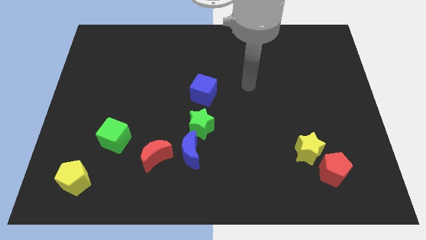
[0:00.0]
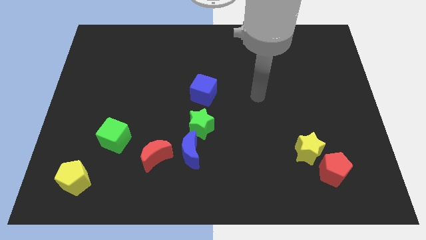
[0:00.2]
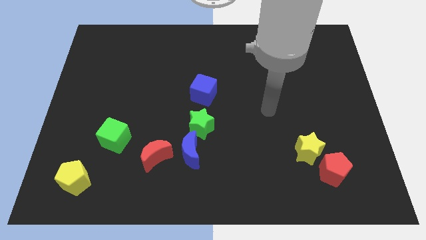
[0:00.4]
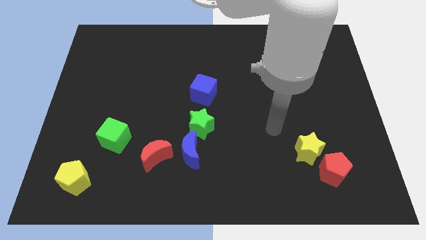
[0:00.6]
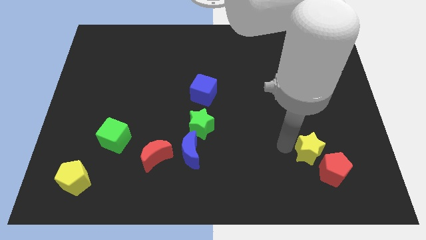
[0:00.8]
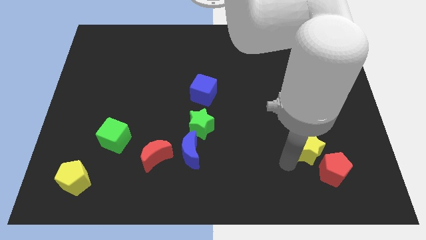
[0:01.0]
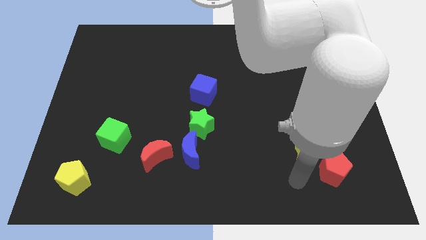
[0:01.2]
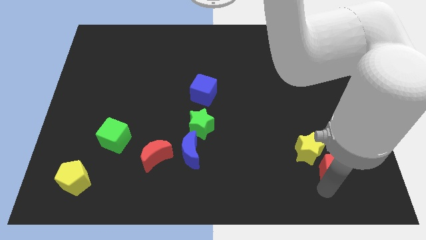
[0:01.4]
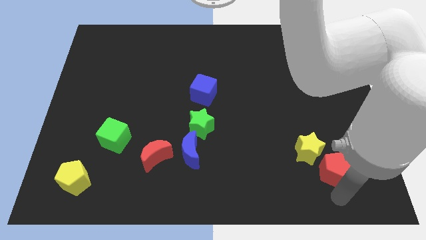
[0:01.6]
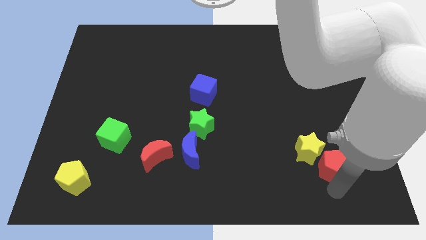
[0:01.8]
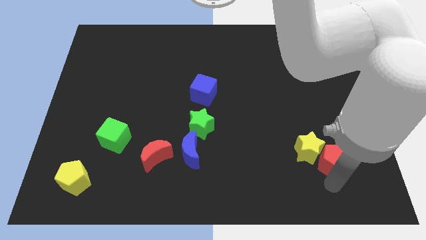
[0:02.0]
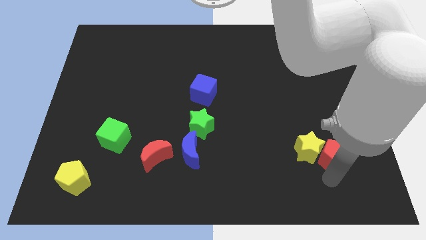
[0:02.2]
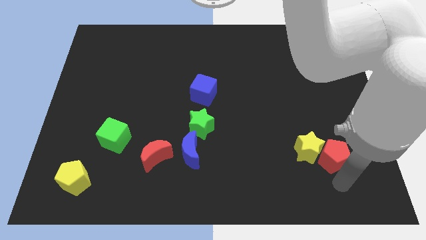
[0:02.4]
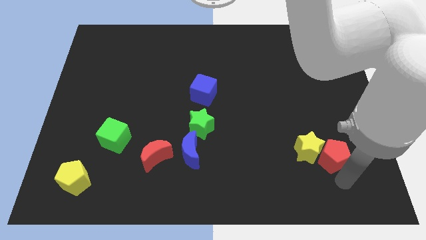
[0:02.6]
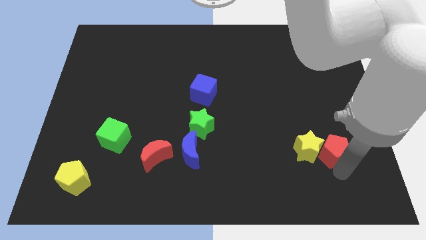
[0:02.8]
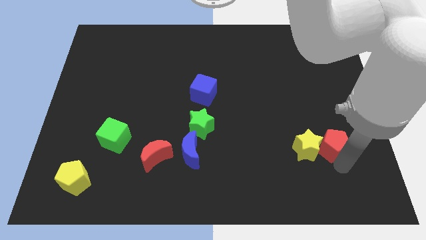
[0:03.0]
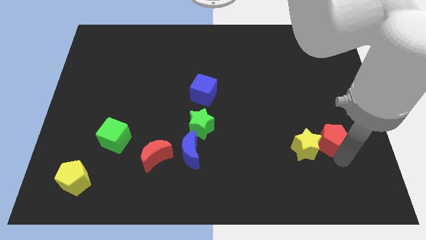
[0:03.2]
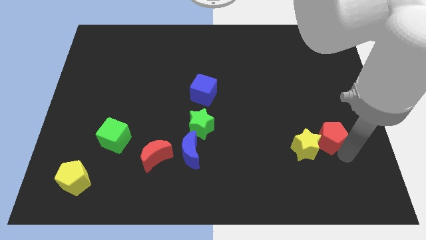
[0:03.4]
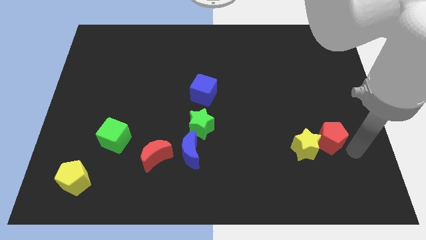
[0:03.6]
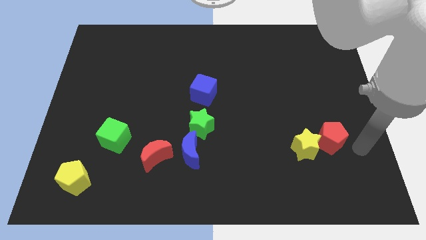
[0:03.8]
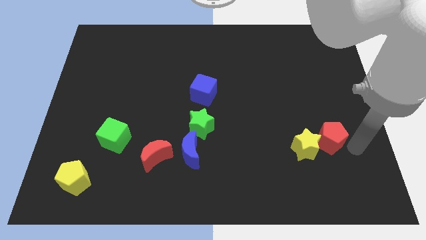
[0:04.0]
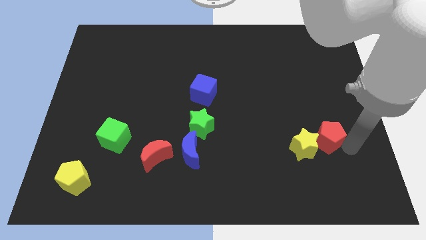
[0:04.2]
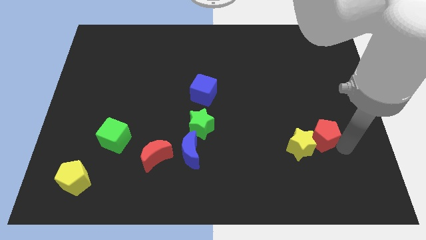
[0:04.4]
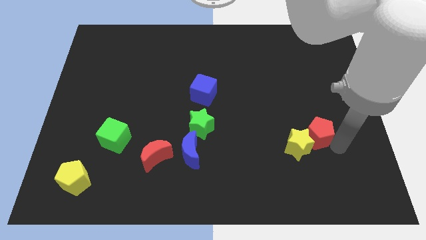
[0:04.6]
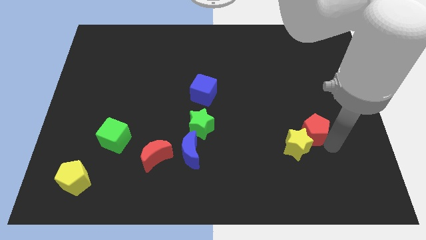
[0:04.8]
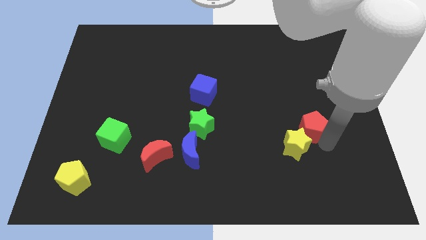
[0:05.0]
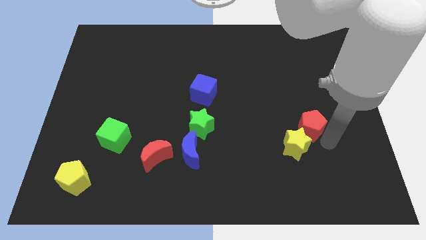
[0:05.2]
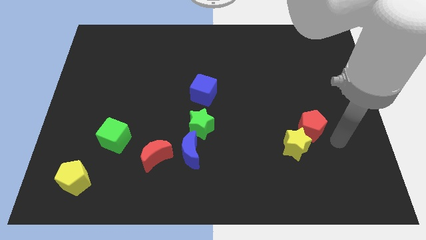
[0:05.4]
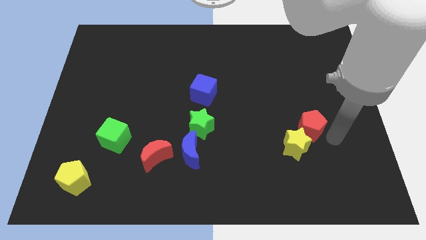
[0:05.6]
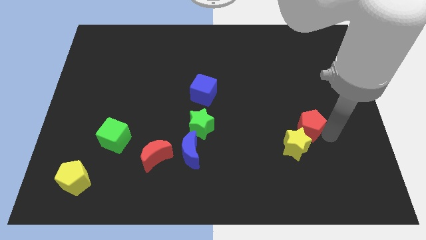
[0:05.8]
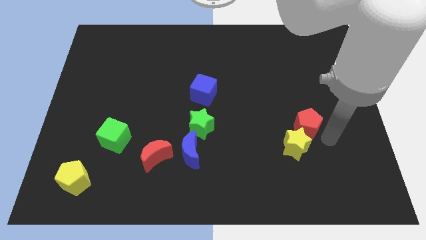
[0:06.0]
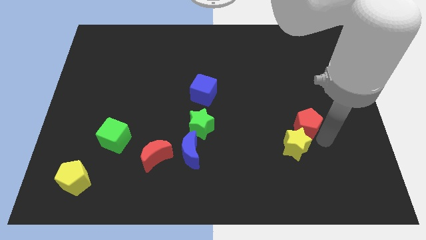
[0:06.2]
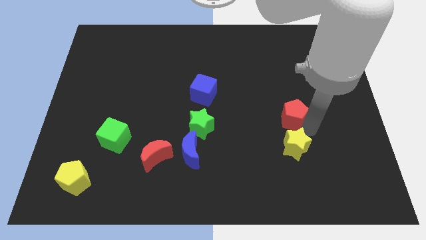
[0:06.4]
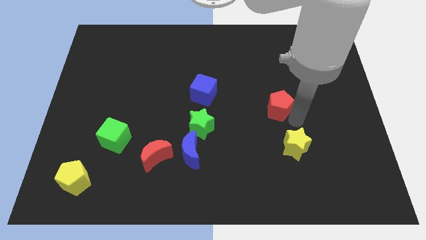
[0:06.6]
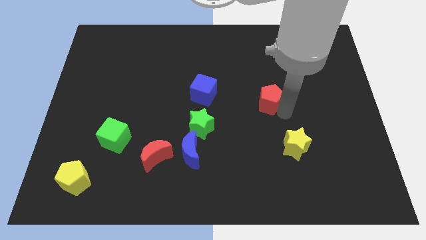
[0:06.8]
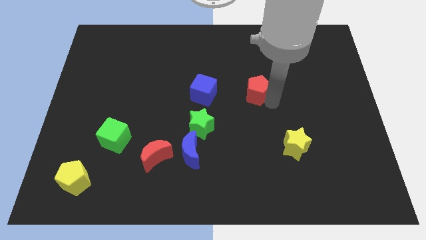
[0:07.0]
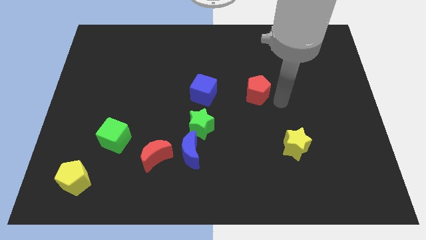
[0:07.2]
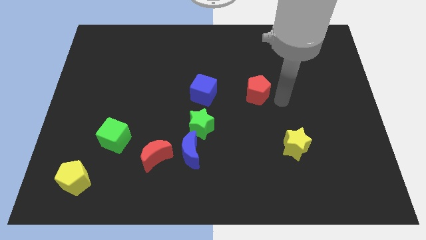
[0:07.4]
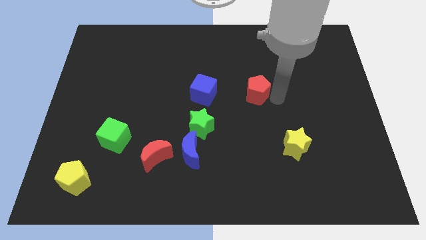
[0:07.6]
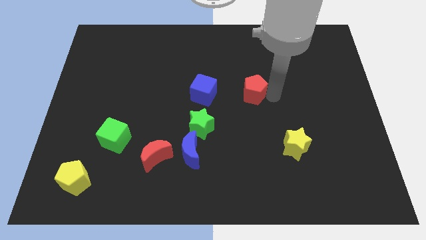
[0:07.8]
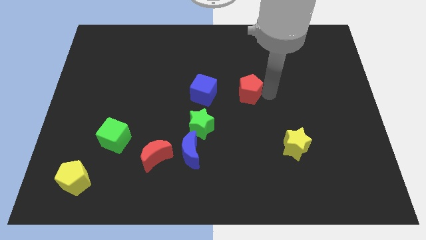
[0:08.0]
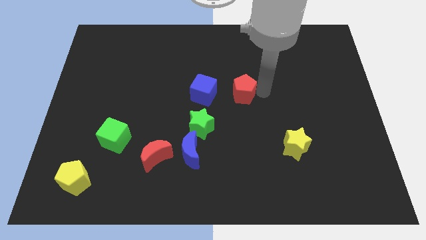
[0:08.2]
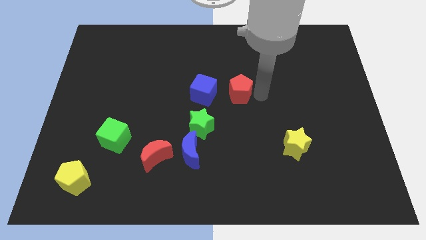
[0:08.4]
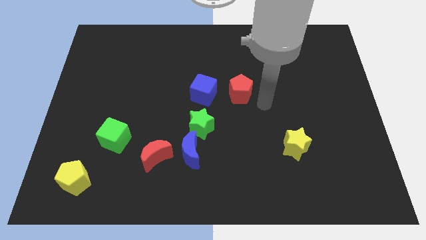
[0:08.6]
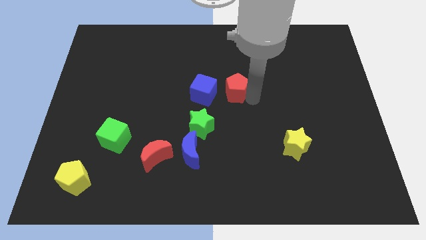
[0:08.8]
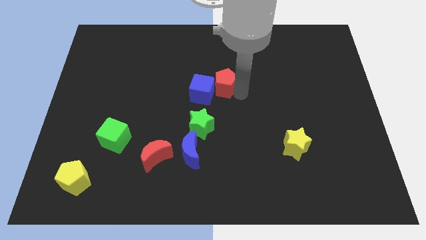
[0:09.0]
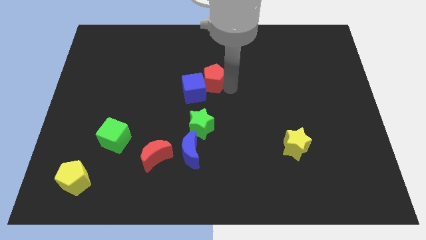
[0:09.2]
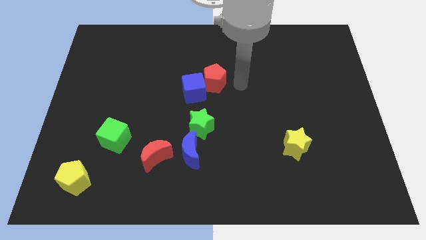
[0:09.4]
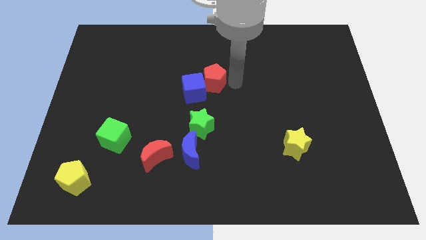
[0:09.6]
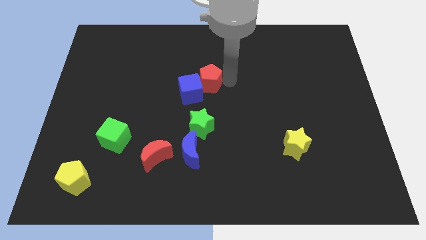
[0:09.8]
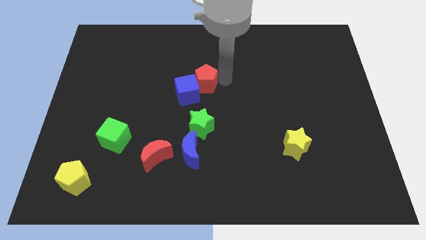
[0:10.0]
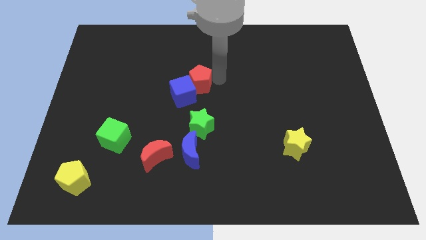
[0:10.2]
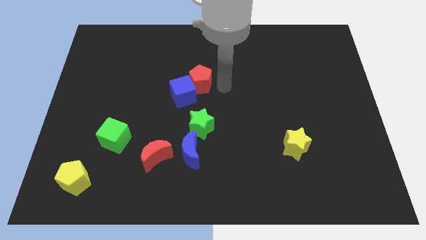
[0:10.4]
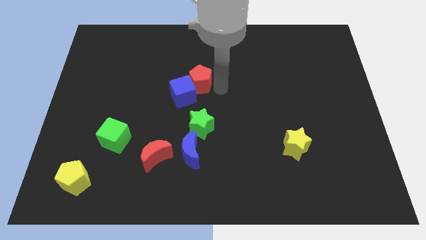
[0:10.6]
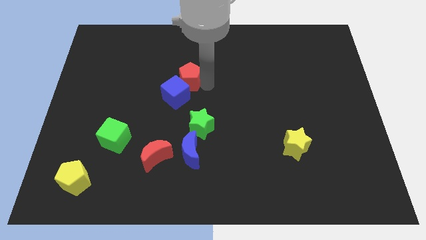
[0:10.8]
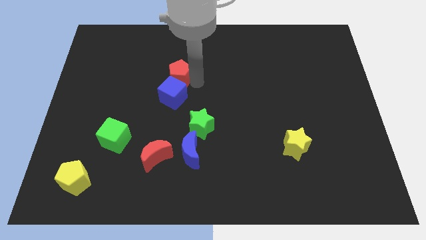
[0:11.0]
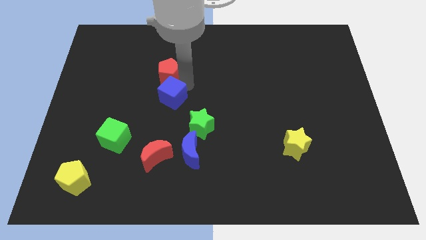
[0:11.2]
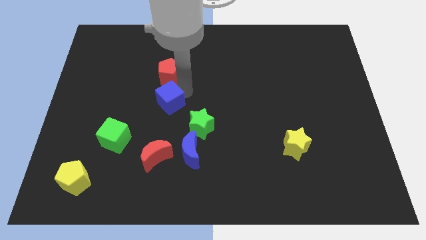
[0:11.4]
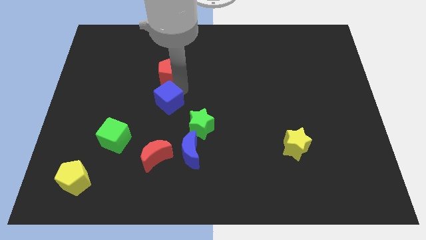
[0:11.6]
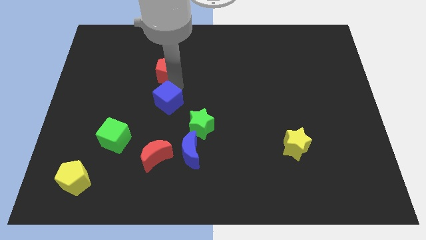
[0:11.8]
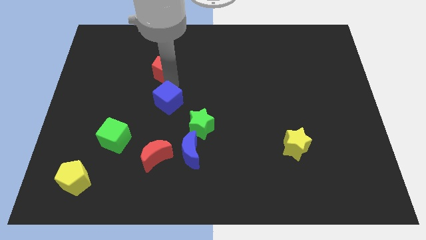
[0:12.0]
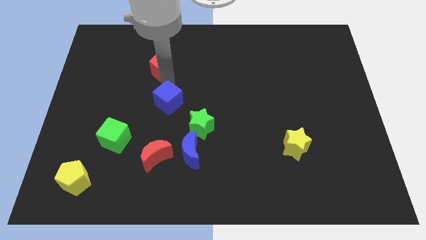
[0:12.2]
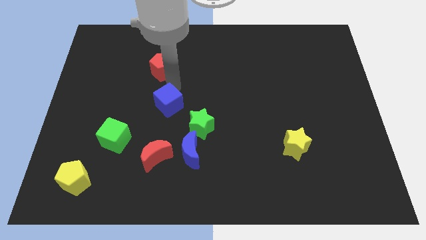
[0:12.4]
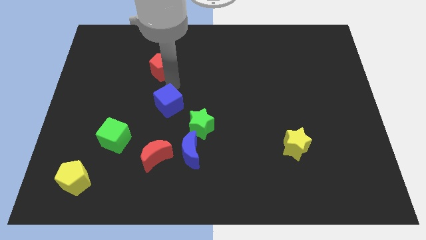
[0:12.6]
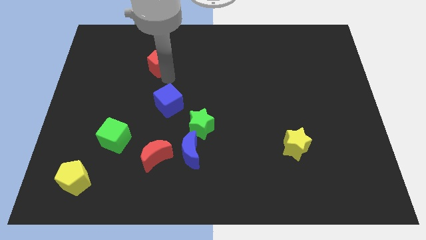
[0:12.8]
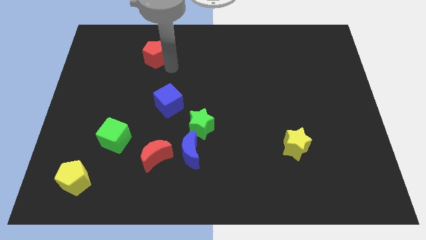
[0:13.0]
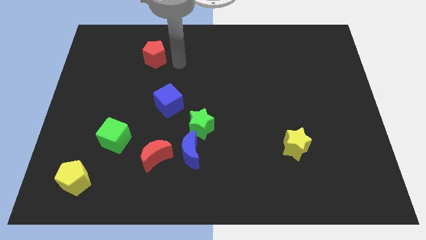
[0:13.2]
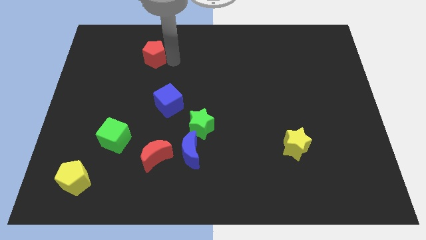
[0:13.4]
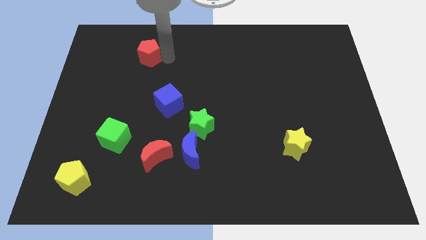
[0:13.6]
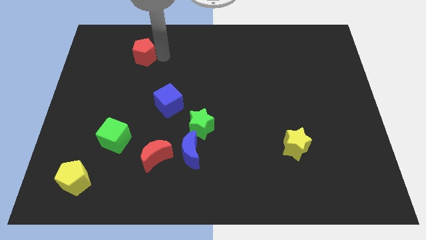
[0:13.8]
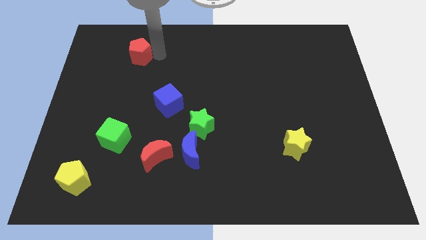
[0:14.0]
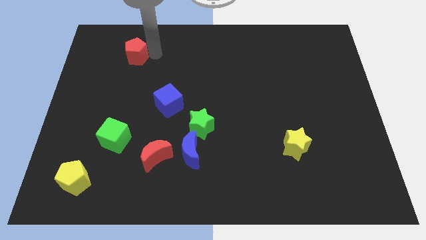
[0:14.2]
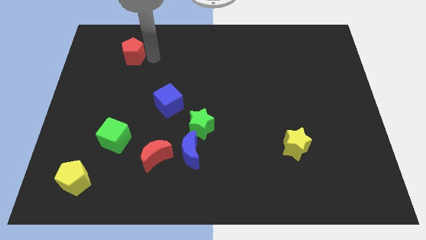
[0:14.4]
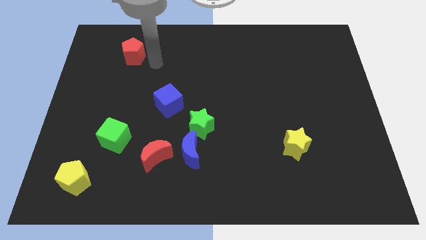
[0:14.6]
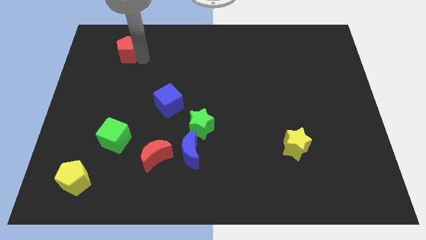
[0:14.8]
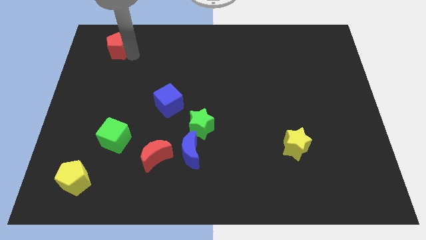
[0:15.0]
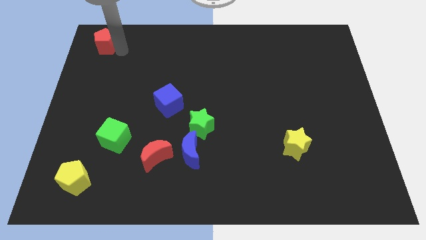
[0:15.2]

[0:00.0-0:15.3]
slide the red pentagon to the top left
